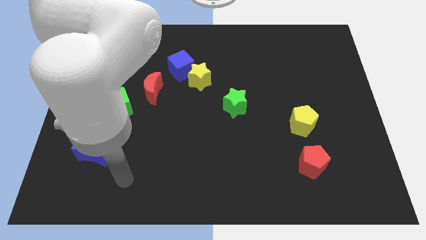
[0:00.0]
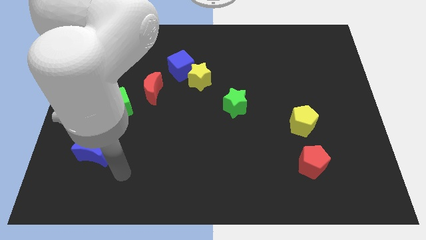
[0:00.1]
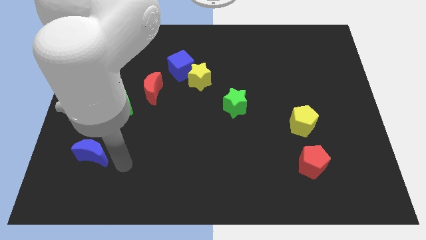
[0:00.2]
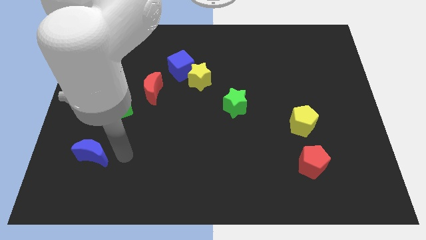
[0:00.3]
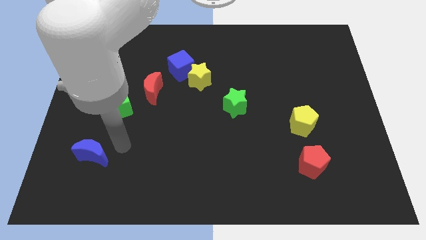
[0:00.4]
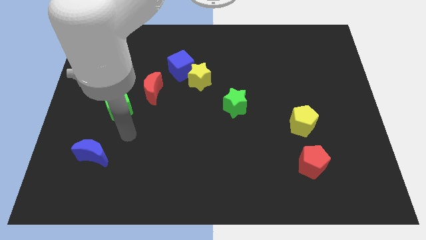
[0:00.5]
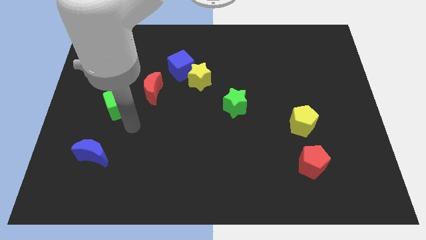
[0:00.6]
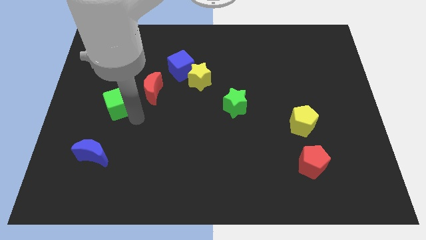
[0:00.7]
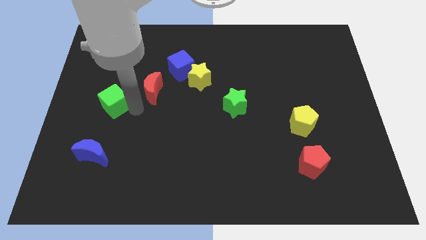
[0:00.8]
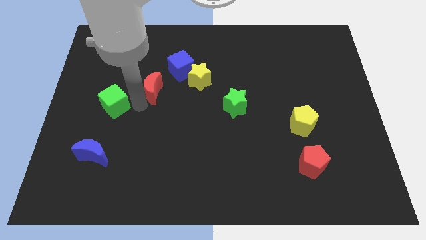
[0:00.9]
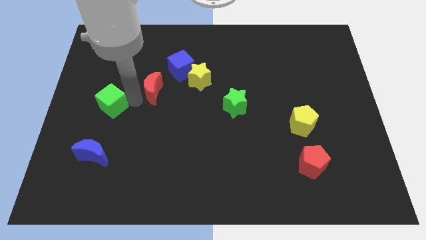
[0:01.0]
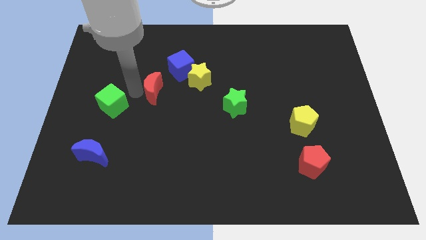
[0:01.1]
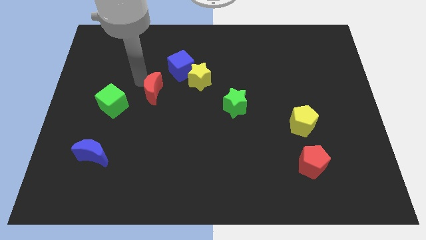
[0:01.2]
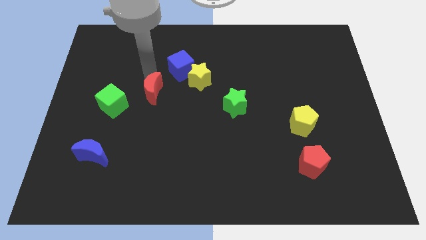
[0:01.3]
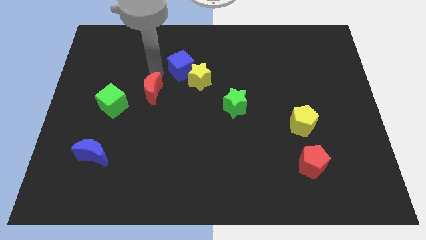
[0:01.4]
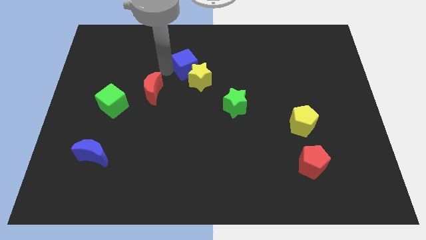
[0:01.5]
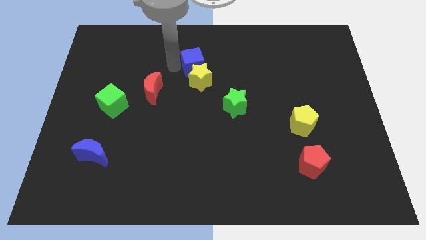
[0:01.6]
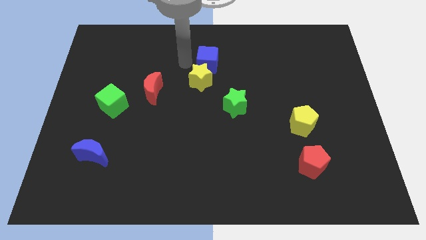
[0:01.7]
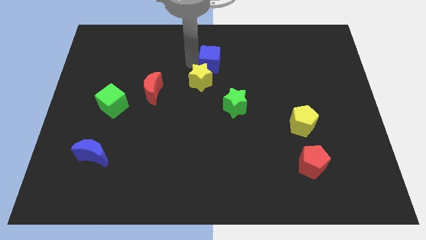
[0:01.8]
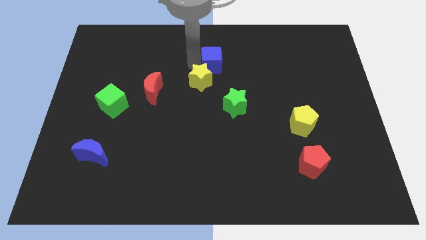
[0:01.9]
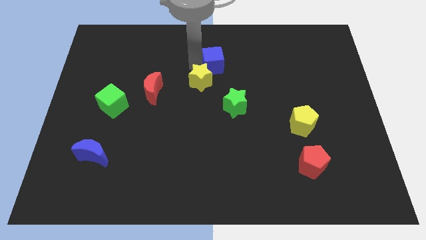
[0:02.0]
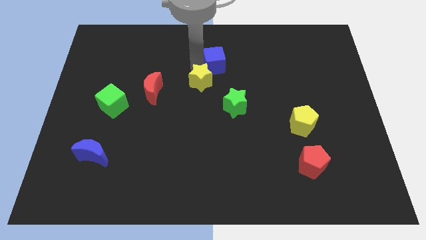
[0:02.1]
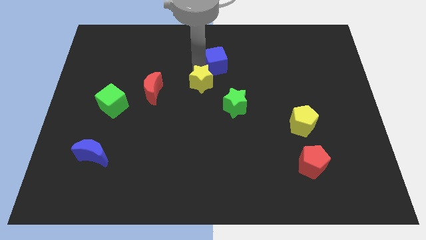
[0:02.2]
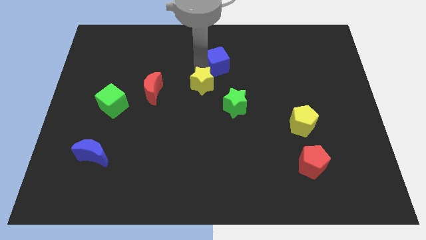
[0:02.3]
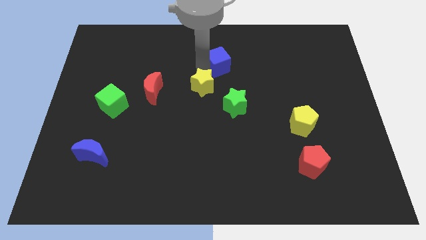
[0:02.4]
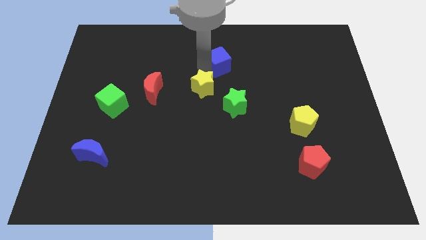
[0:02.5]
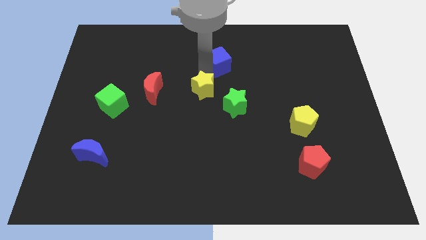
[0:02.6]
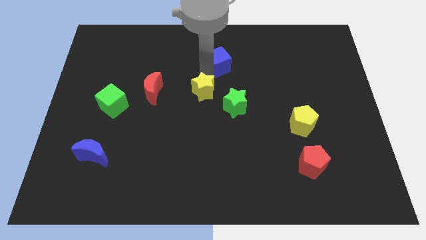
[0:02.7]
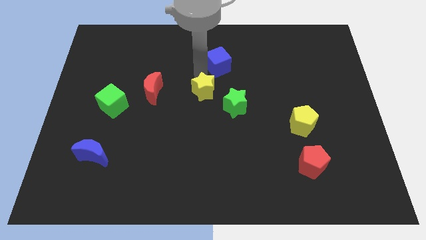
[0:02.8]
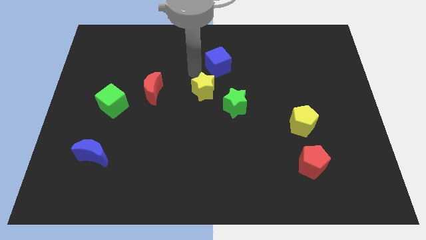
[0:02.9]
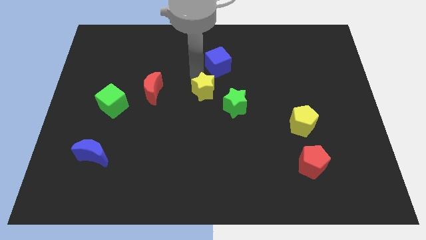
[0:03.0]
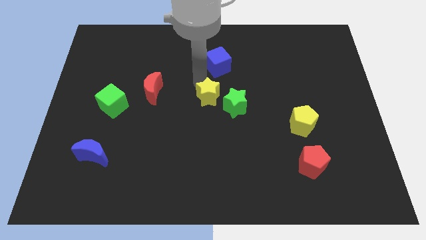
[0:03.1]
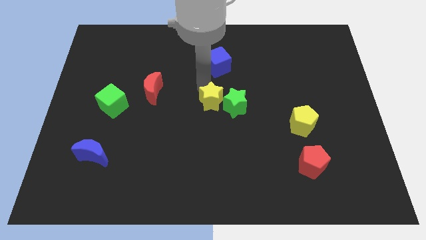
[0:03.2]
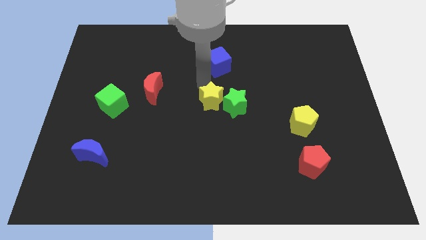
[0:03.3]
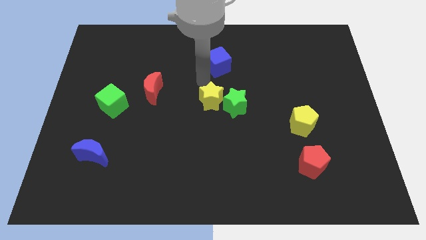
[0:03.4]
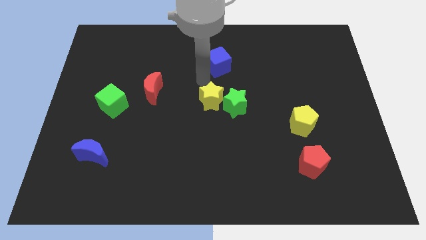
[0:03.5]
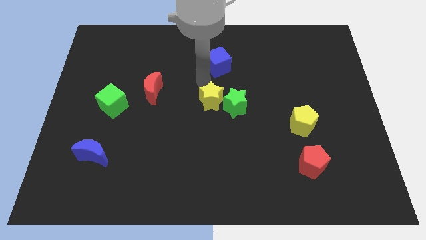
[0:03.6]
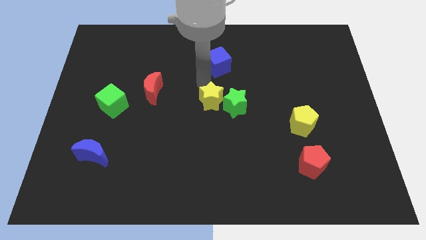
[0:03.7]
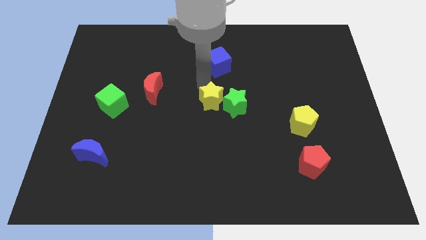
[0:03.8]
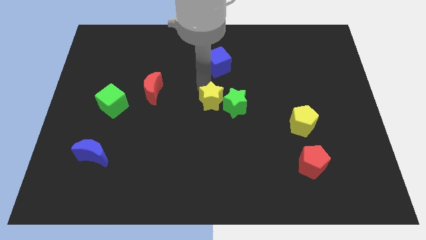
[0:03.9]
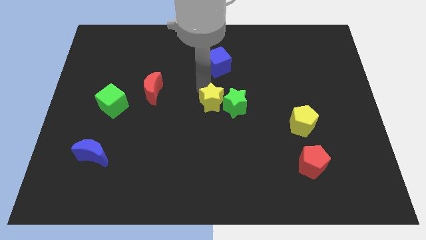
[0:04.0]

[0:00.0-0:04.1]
slide the yellow star slightly diagonally down and to the right

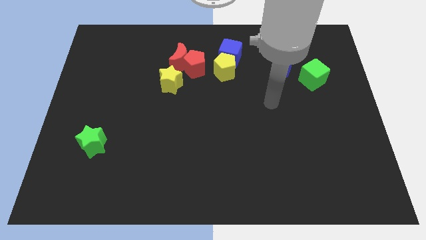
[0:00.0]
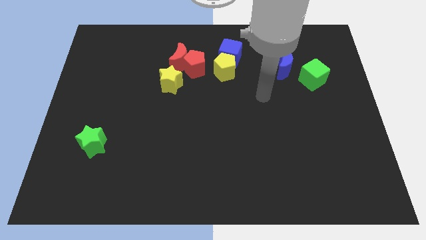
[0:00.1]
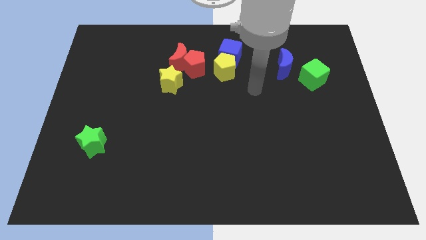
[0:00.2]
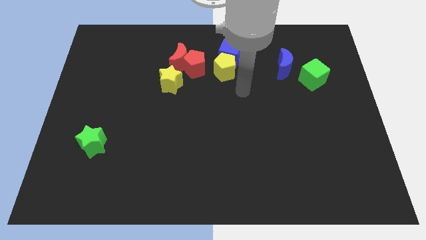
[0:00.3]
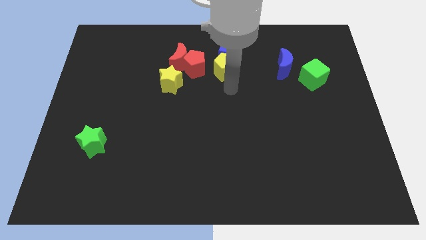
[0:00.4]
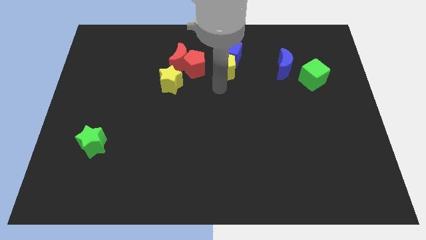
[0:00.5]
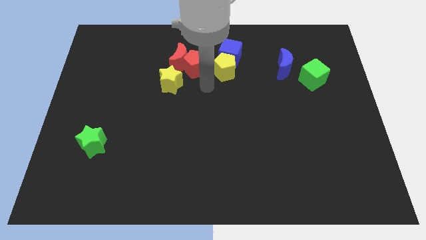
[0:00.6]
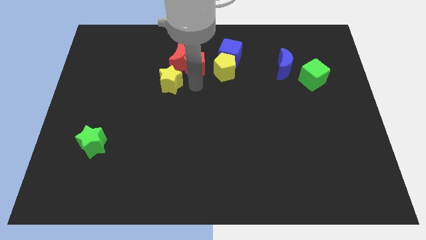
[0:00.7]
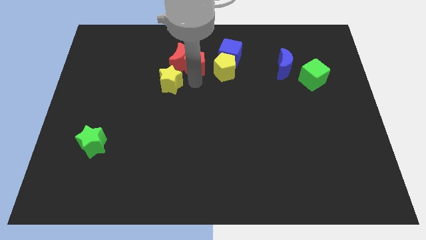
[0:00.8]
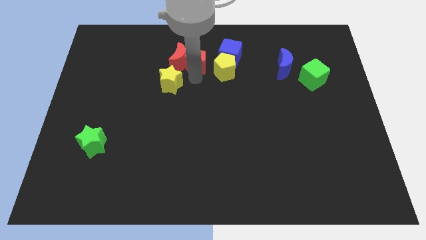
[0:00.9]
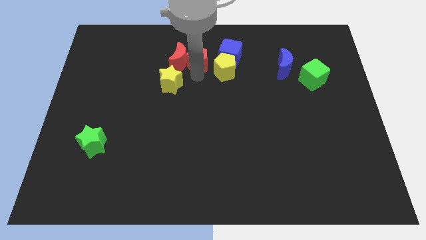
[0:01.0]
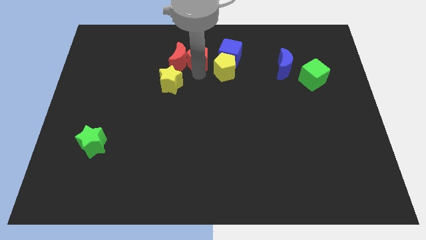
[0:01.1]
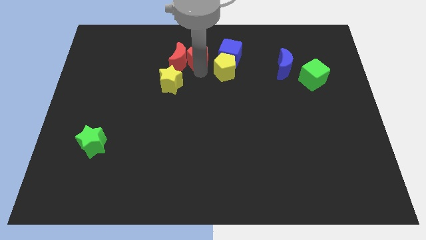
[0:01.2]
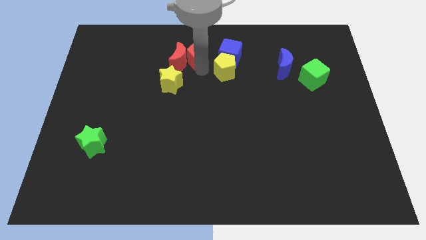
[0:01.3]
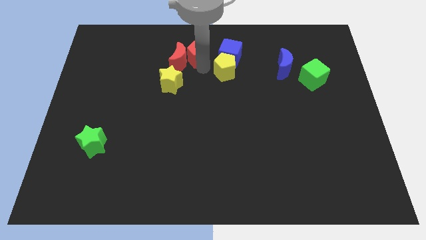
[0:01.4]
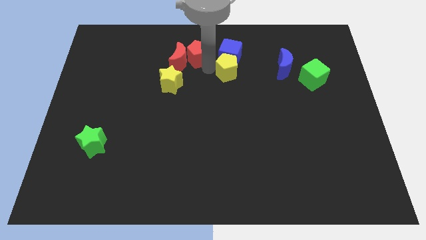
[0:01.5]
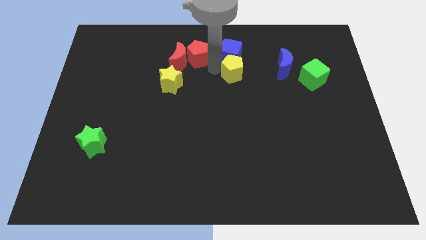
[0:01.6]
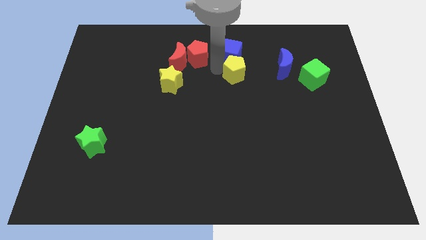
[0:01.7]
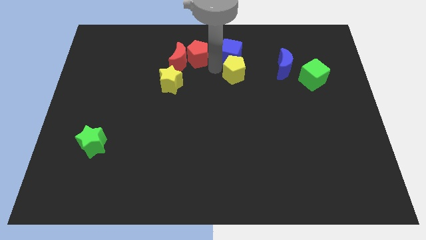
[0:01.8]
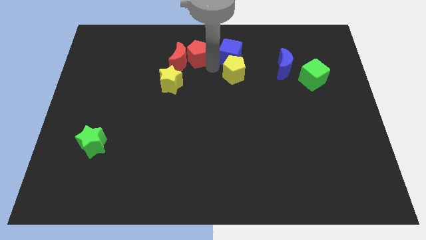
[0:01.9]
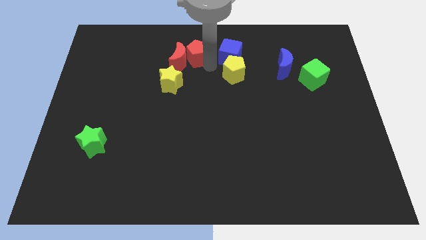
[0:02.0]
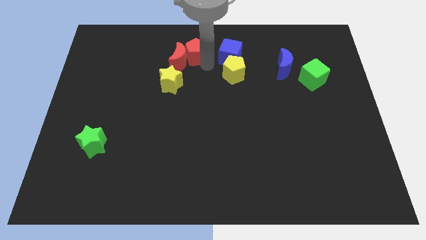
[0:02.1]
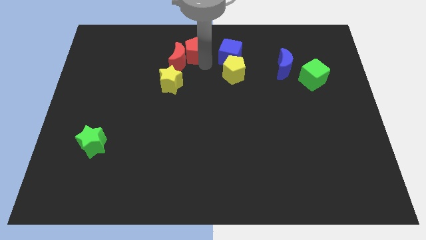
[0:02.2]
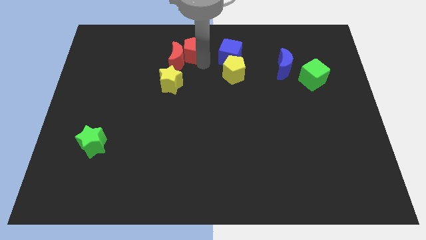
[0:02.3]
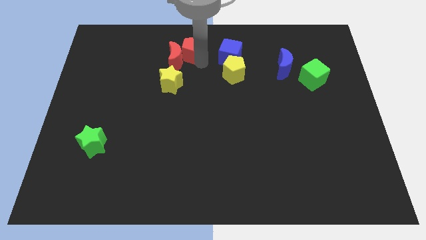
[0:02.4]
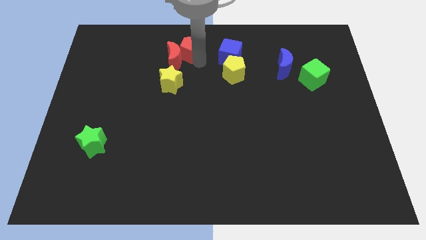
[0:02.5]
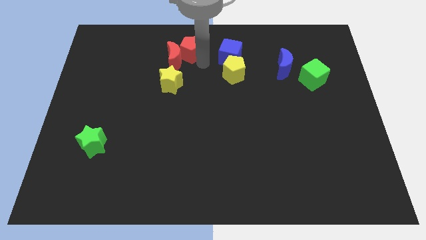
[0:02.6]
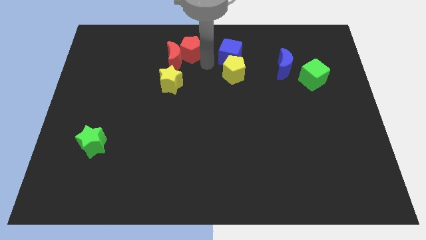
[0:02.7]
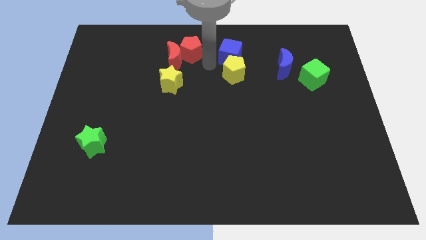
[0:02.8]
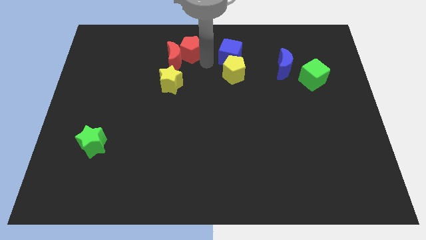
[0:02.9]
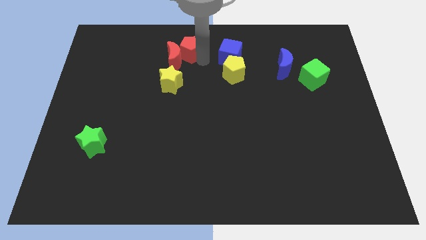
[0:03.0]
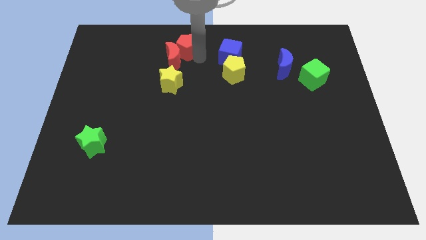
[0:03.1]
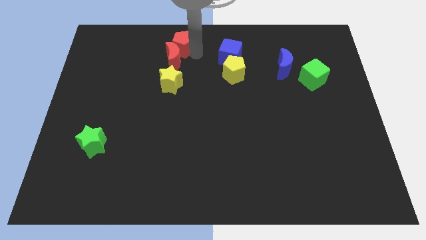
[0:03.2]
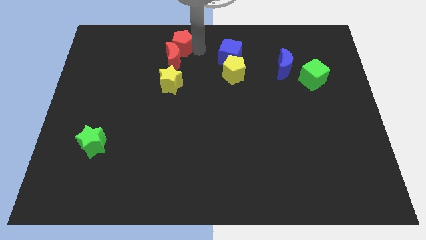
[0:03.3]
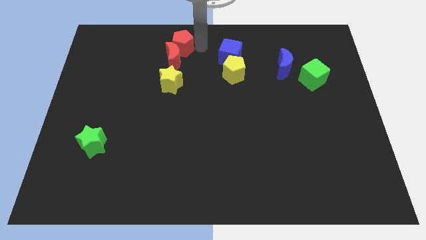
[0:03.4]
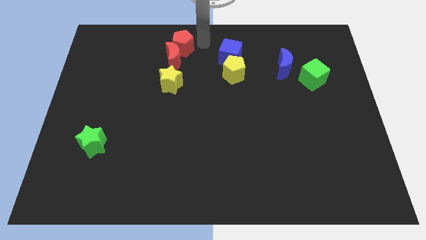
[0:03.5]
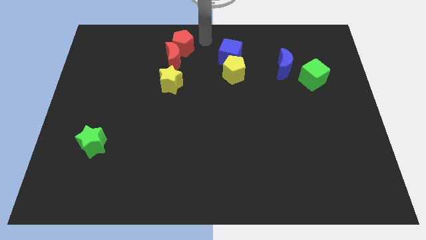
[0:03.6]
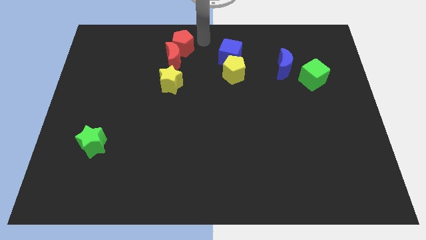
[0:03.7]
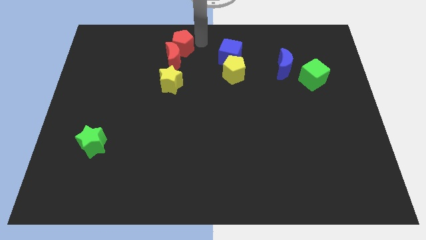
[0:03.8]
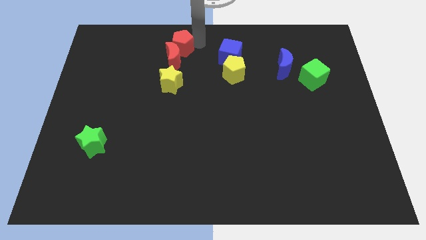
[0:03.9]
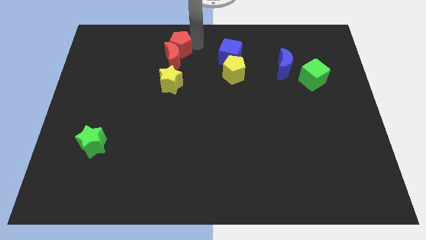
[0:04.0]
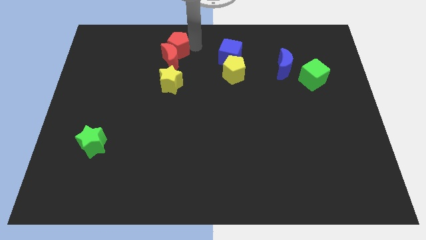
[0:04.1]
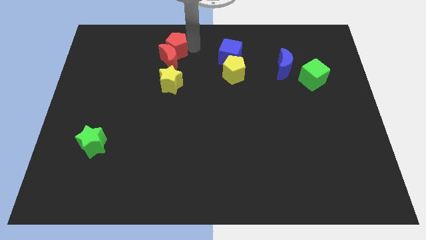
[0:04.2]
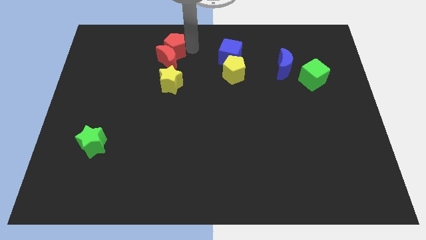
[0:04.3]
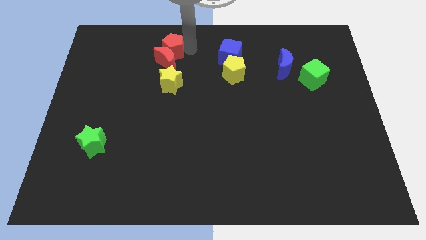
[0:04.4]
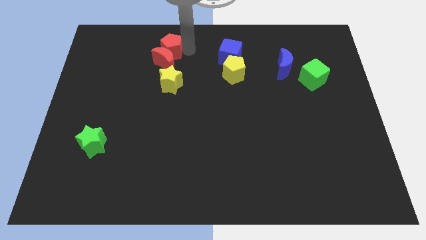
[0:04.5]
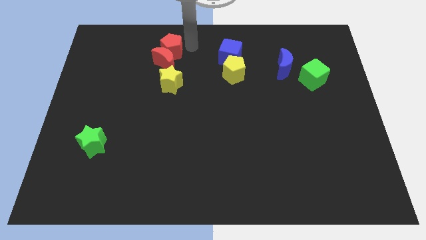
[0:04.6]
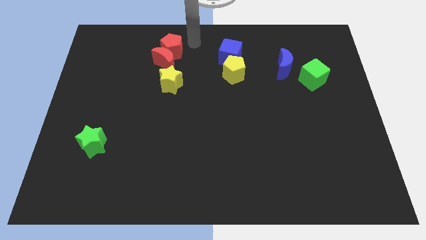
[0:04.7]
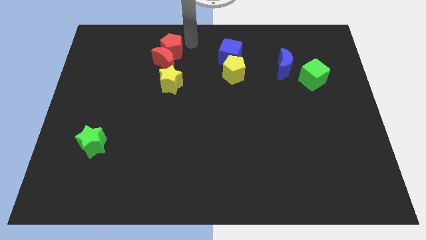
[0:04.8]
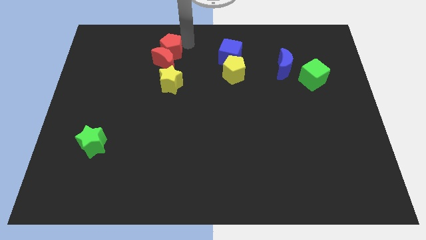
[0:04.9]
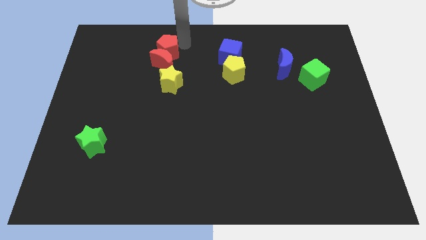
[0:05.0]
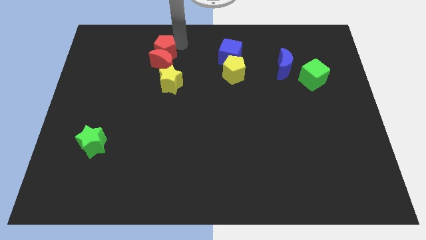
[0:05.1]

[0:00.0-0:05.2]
slightly slide the red pentagon left
